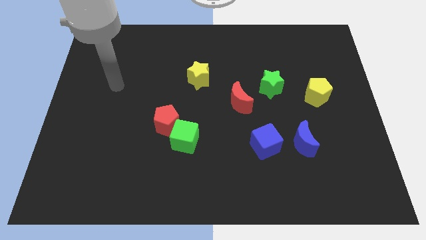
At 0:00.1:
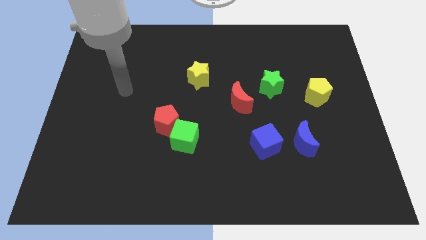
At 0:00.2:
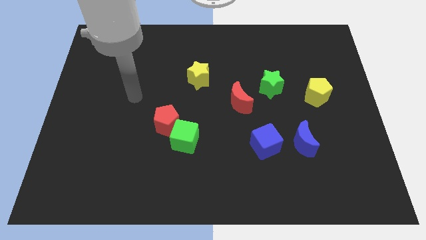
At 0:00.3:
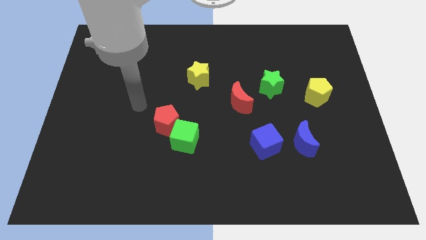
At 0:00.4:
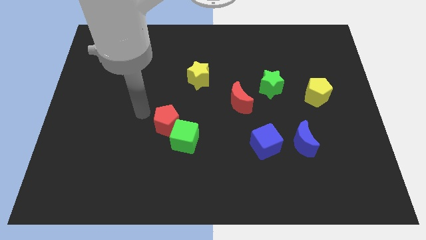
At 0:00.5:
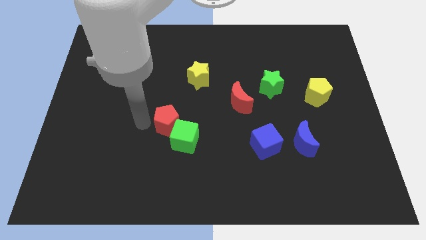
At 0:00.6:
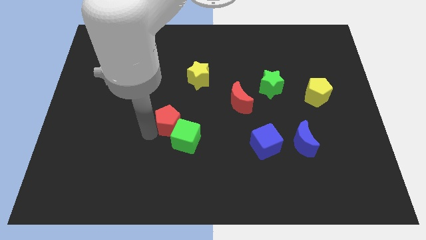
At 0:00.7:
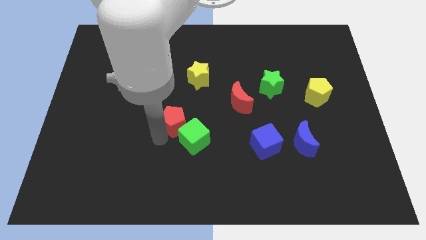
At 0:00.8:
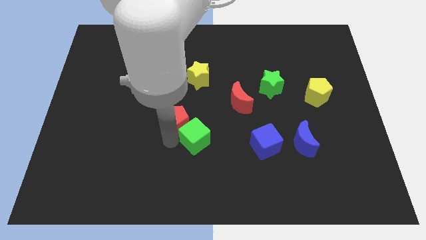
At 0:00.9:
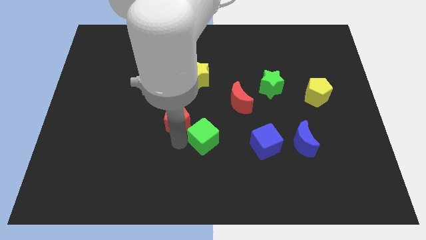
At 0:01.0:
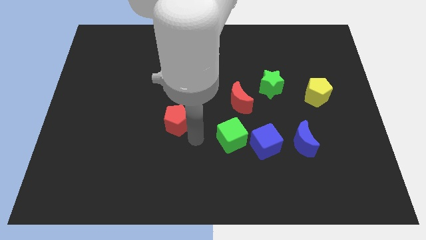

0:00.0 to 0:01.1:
separate the red pentagon from the green cube

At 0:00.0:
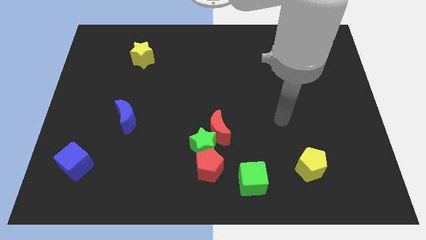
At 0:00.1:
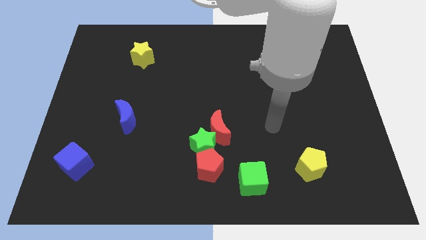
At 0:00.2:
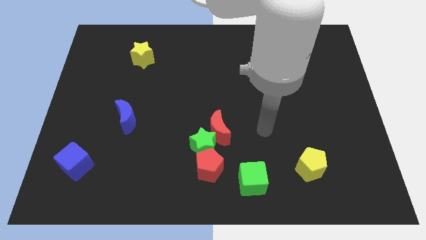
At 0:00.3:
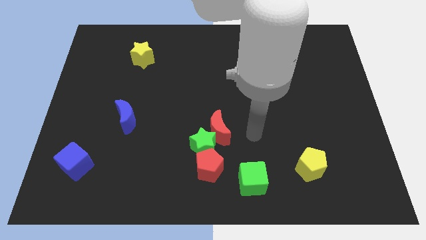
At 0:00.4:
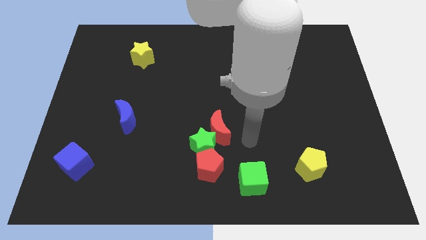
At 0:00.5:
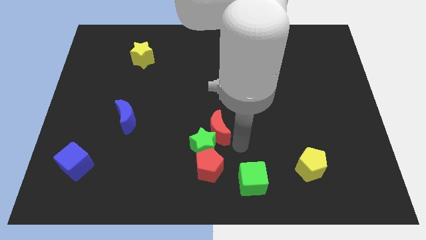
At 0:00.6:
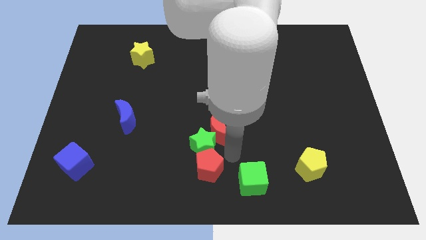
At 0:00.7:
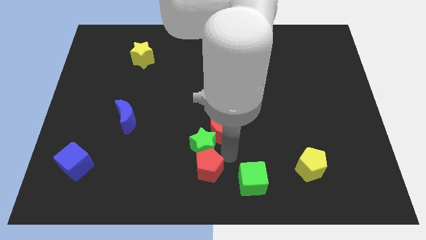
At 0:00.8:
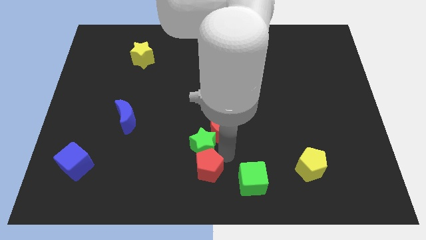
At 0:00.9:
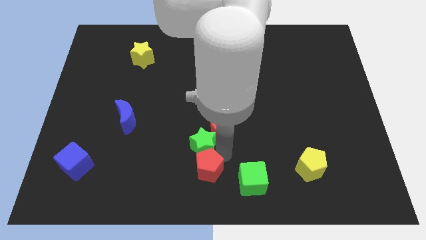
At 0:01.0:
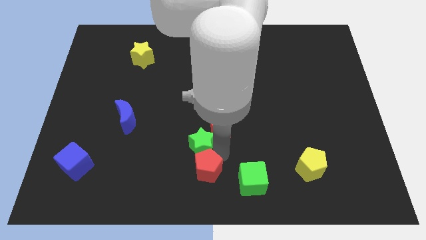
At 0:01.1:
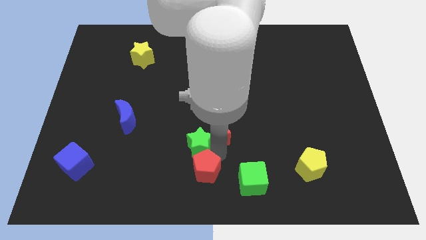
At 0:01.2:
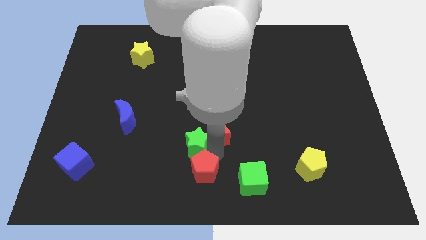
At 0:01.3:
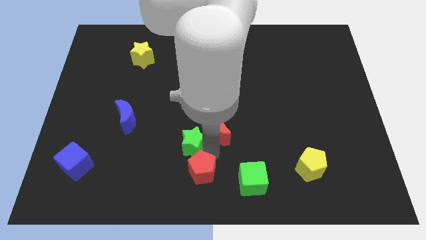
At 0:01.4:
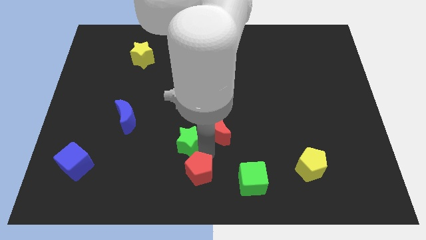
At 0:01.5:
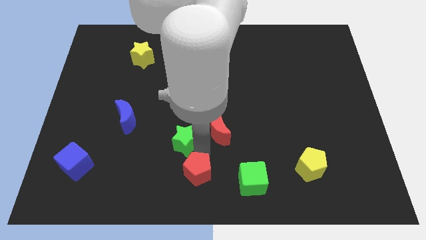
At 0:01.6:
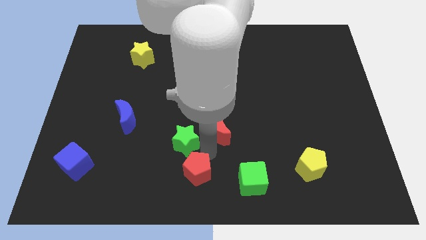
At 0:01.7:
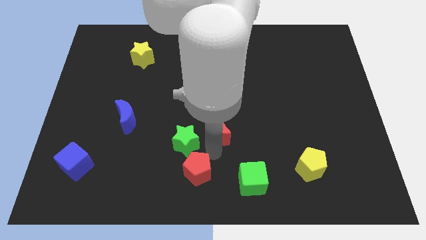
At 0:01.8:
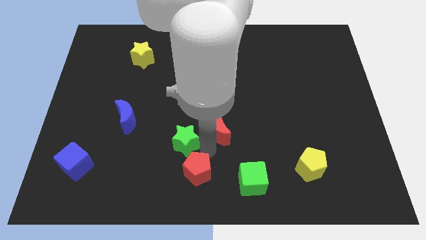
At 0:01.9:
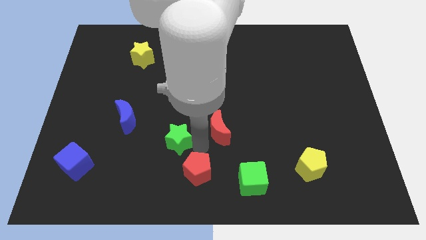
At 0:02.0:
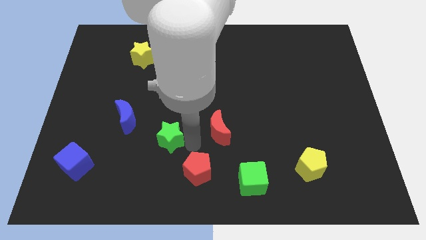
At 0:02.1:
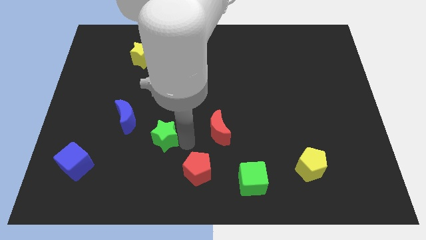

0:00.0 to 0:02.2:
move the green star away from the red moon and red pentagon

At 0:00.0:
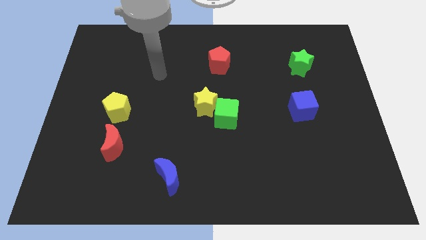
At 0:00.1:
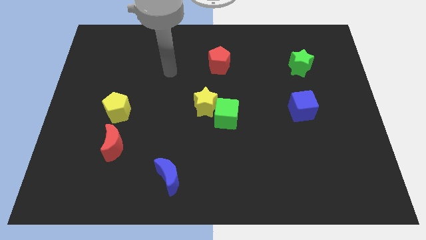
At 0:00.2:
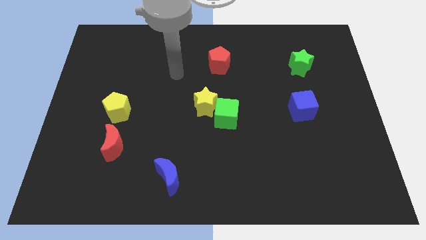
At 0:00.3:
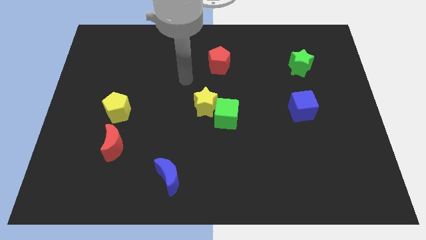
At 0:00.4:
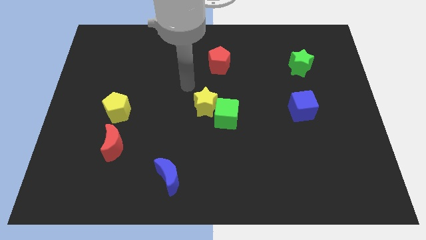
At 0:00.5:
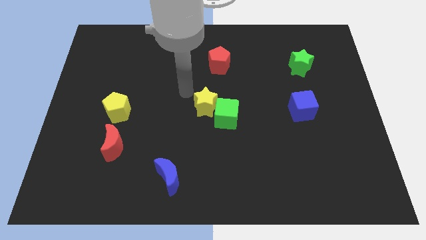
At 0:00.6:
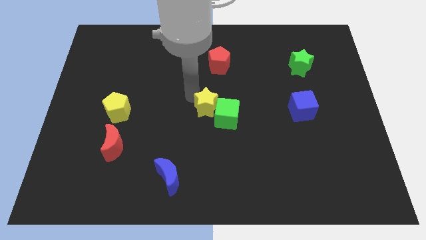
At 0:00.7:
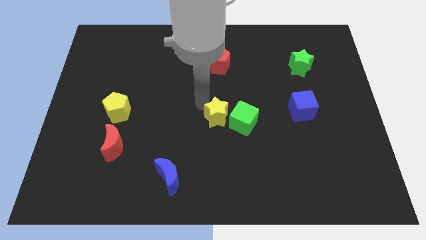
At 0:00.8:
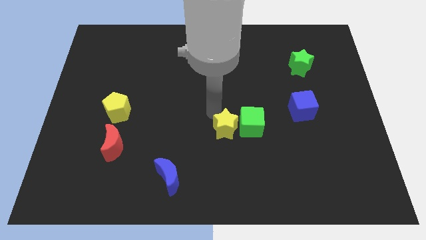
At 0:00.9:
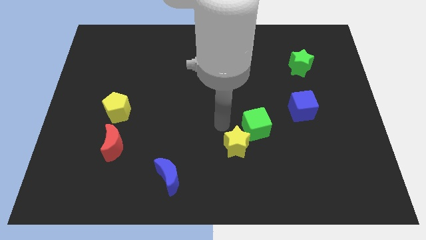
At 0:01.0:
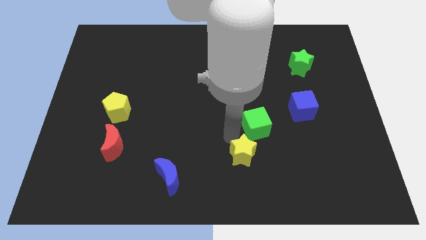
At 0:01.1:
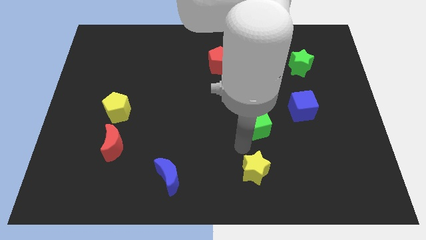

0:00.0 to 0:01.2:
separate the green cube from the yellow star

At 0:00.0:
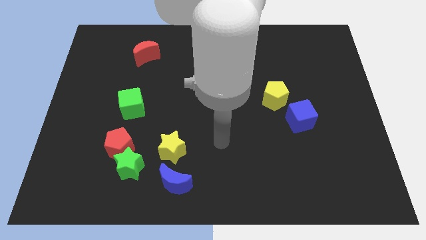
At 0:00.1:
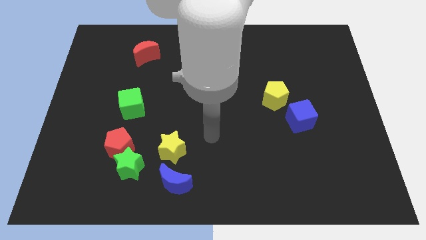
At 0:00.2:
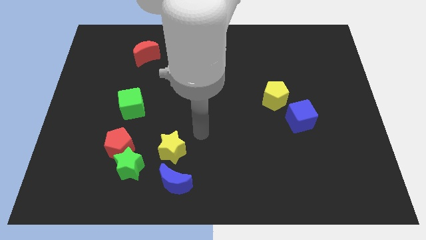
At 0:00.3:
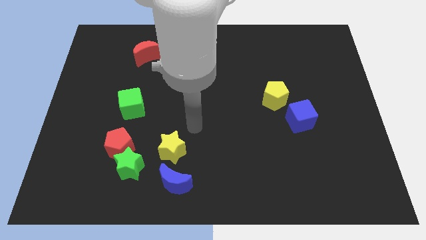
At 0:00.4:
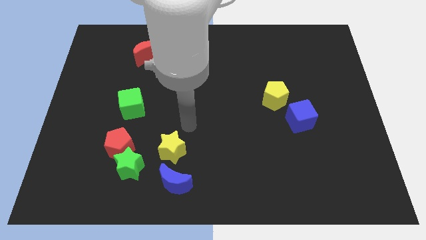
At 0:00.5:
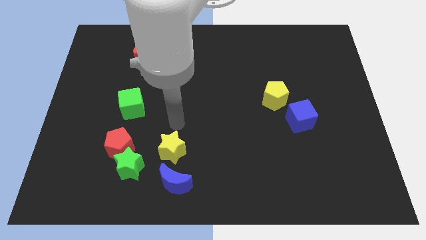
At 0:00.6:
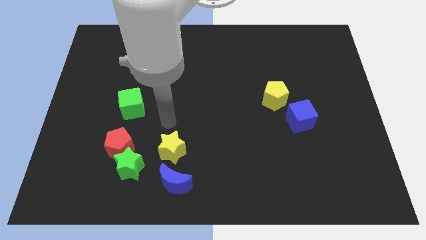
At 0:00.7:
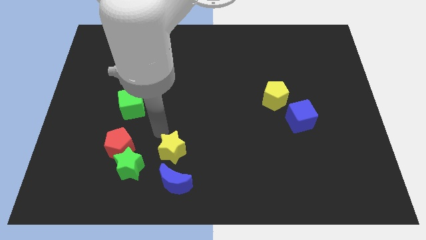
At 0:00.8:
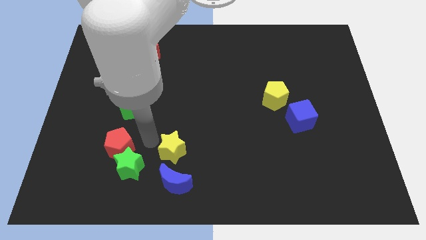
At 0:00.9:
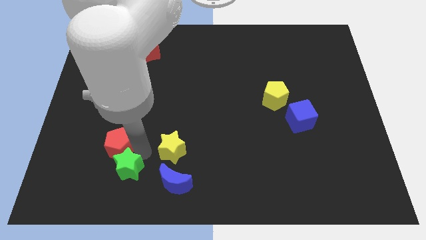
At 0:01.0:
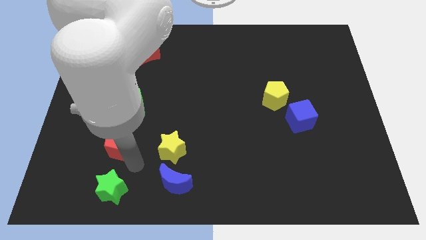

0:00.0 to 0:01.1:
separate the red pentagon from the green star

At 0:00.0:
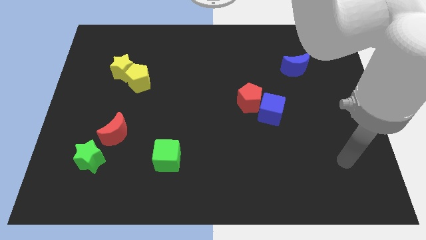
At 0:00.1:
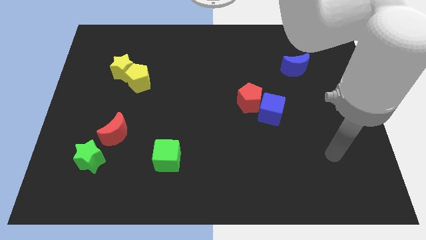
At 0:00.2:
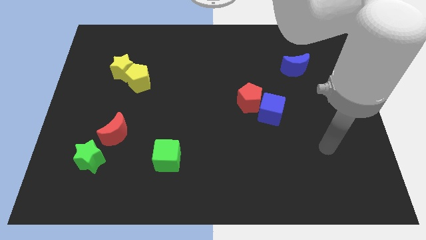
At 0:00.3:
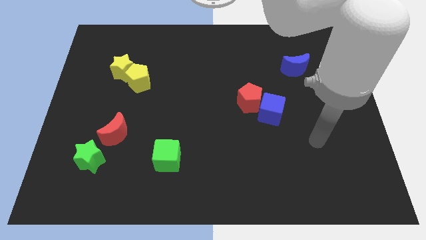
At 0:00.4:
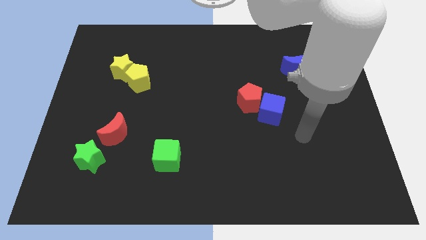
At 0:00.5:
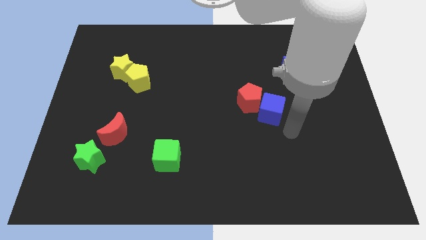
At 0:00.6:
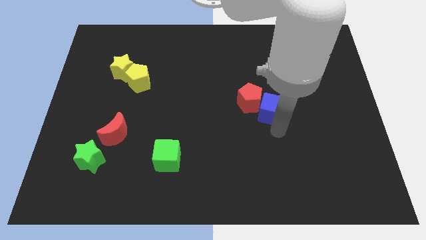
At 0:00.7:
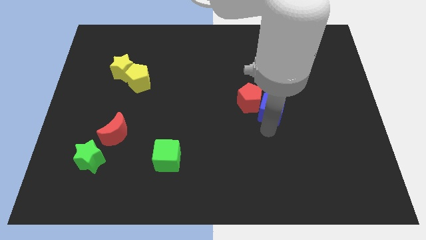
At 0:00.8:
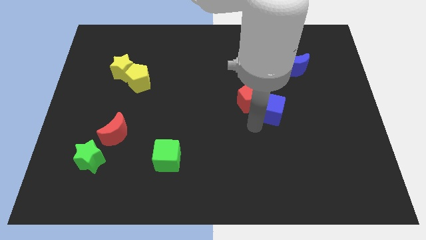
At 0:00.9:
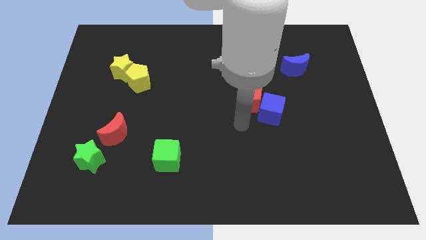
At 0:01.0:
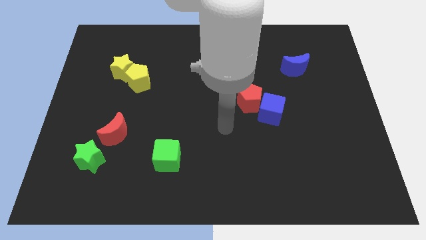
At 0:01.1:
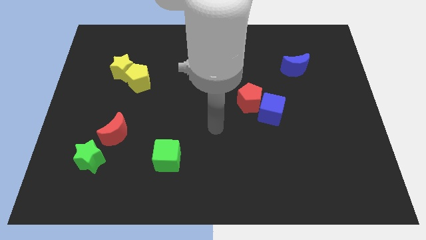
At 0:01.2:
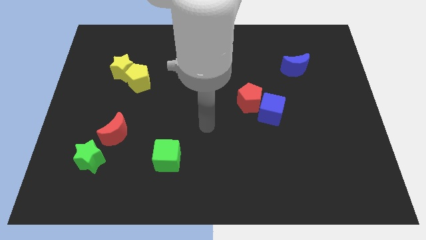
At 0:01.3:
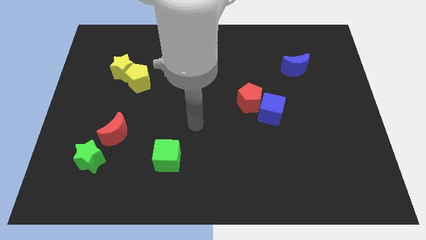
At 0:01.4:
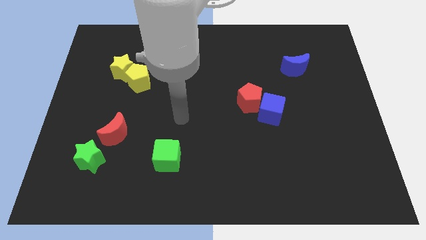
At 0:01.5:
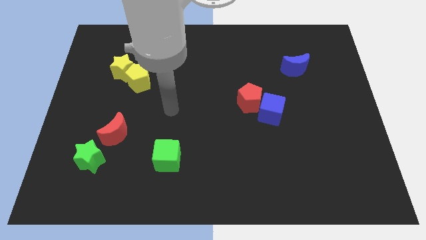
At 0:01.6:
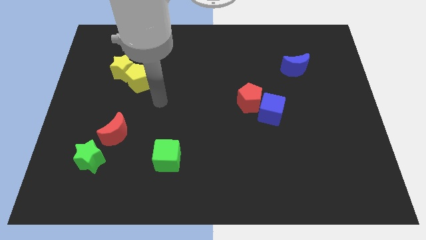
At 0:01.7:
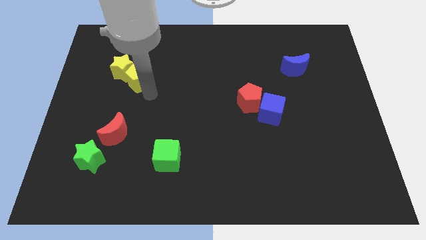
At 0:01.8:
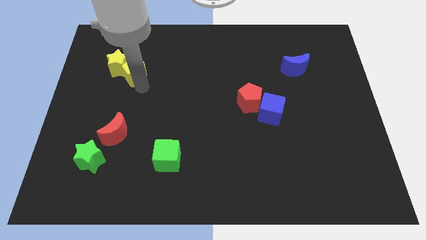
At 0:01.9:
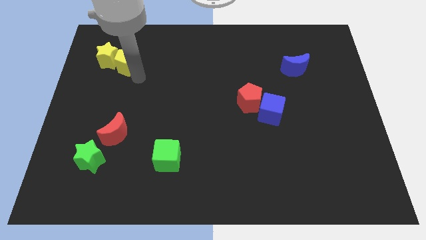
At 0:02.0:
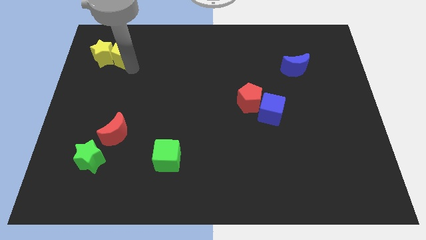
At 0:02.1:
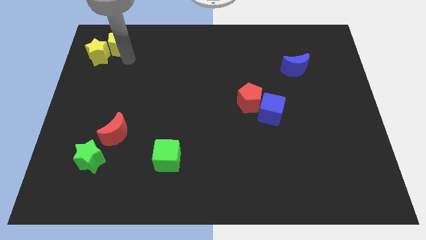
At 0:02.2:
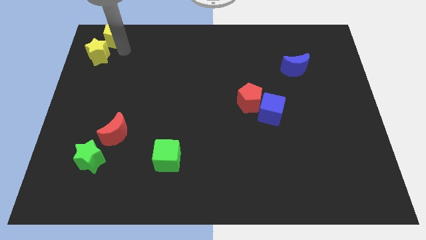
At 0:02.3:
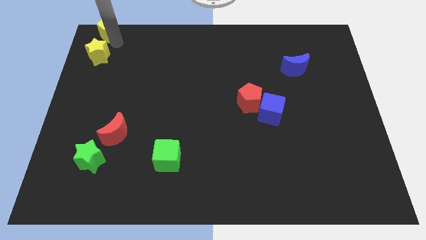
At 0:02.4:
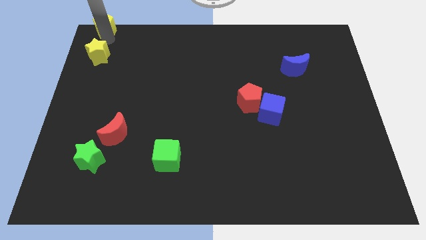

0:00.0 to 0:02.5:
separate the yellow star from the yellow pentagon

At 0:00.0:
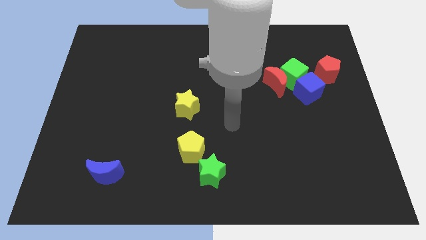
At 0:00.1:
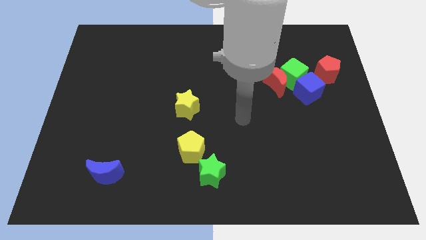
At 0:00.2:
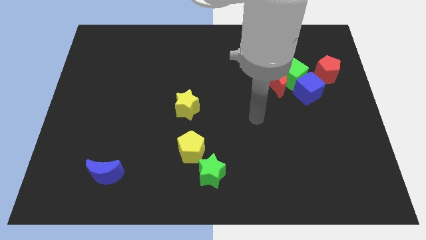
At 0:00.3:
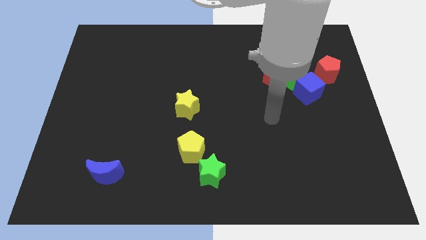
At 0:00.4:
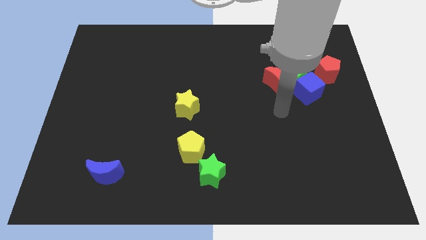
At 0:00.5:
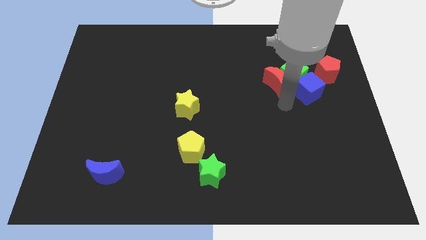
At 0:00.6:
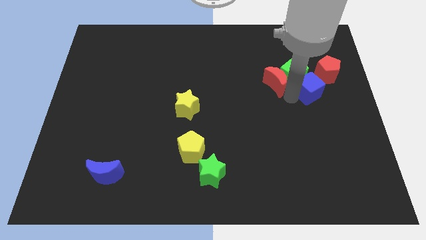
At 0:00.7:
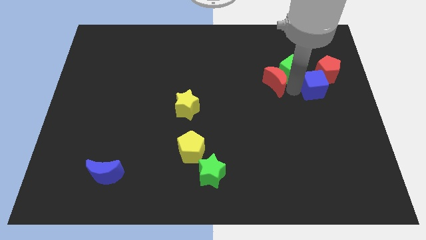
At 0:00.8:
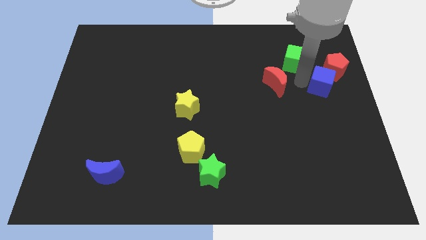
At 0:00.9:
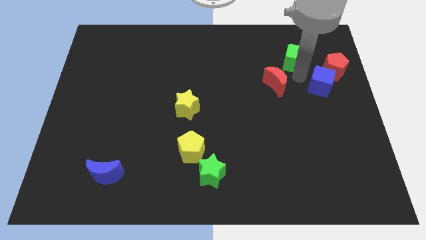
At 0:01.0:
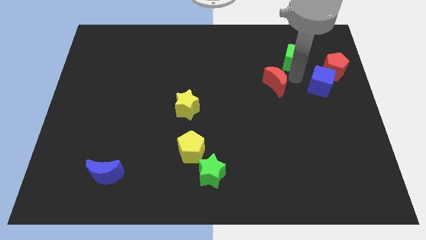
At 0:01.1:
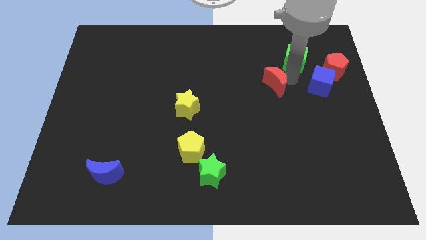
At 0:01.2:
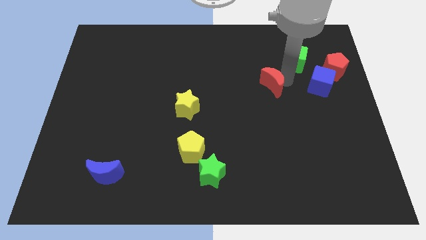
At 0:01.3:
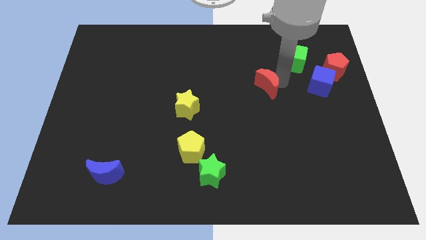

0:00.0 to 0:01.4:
pull the red moon apart from the green cube and blue cube
